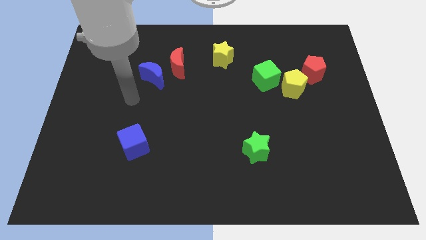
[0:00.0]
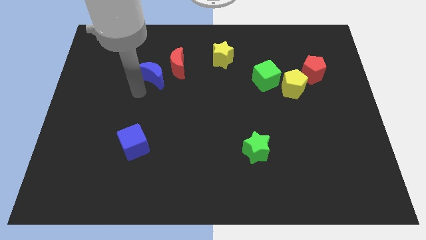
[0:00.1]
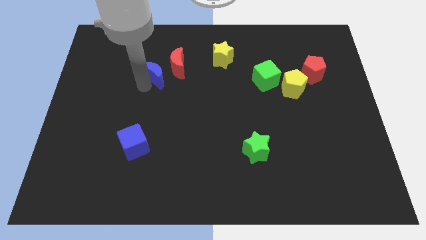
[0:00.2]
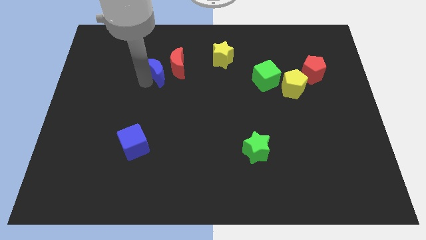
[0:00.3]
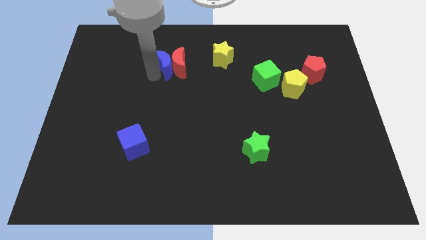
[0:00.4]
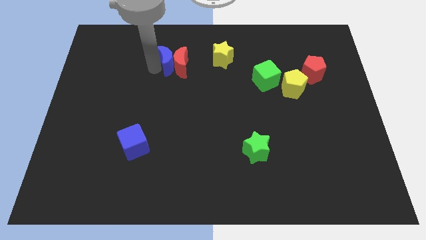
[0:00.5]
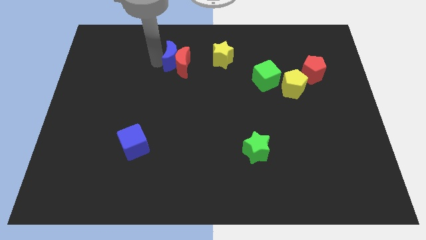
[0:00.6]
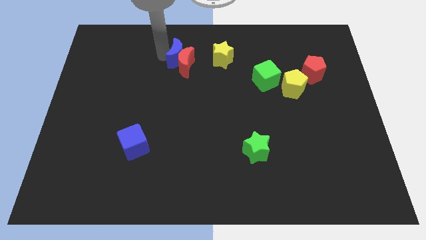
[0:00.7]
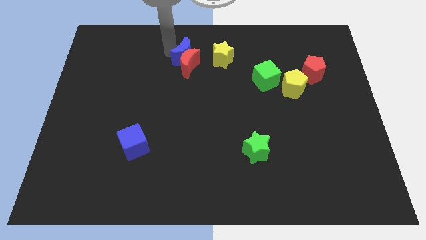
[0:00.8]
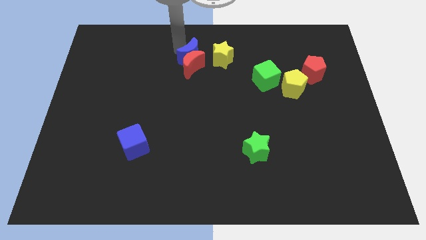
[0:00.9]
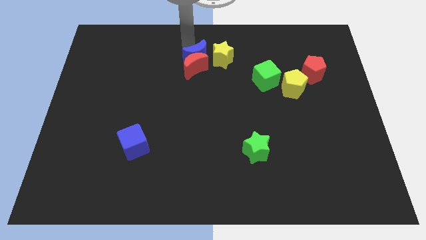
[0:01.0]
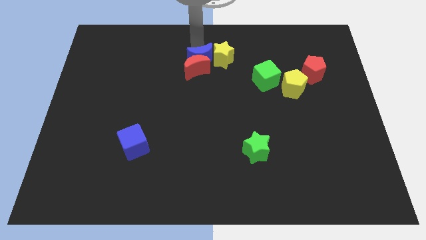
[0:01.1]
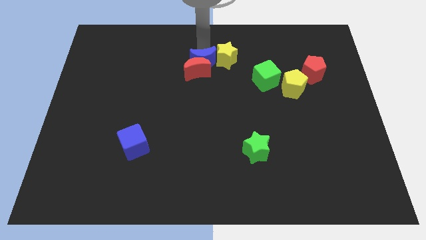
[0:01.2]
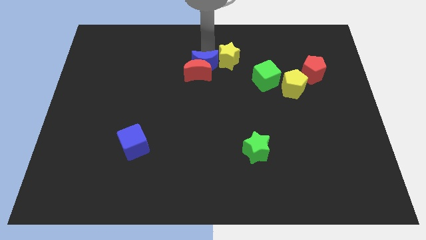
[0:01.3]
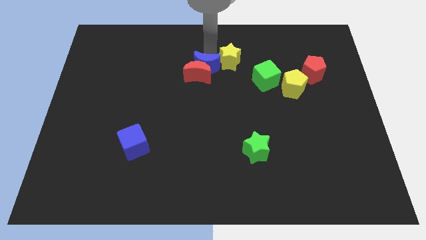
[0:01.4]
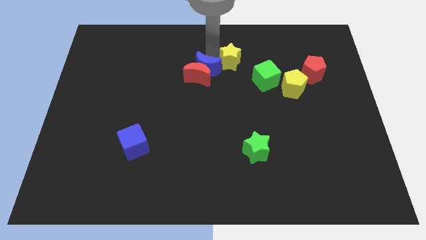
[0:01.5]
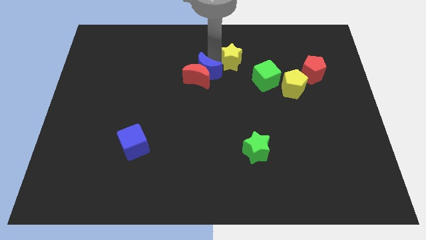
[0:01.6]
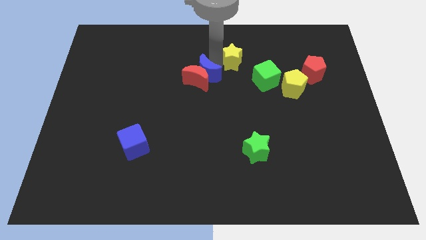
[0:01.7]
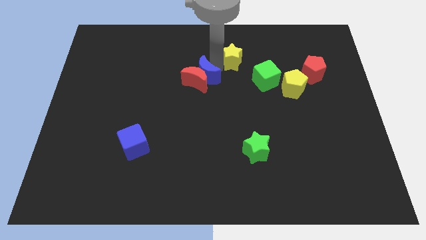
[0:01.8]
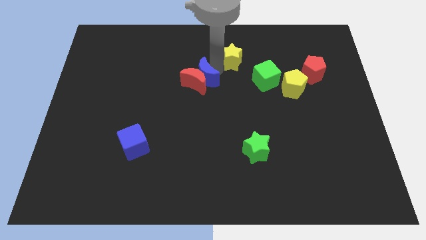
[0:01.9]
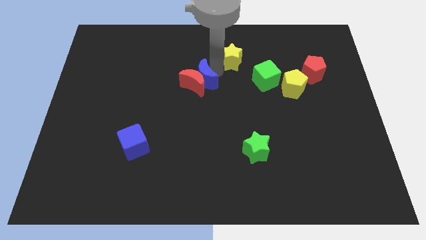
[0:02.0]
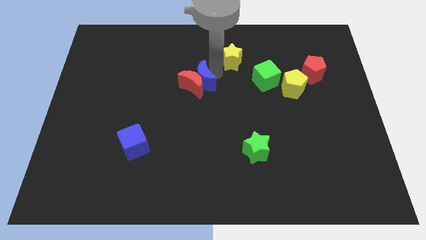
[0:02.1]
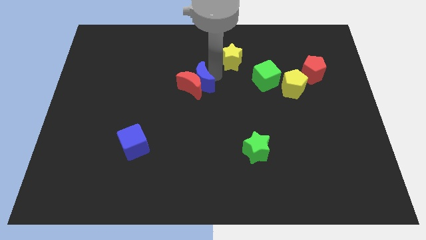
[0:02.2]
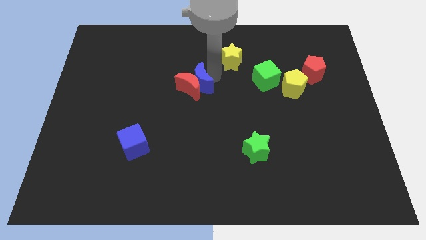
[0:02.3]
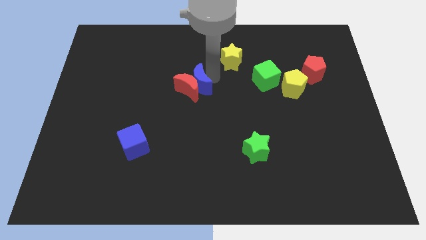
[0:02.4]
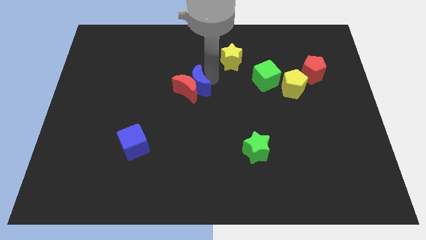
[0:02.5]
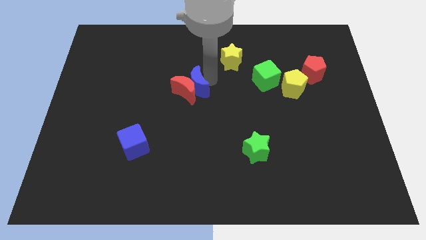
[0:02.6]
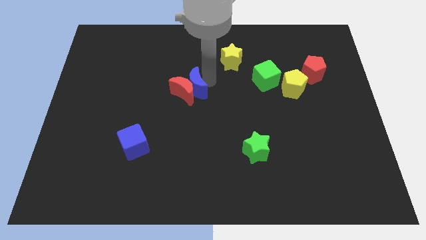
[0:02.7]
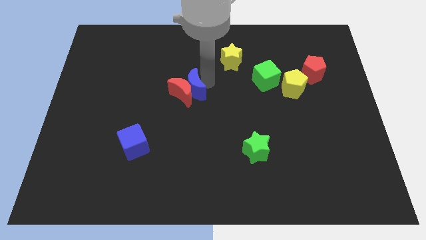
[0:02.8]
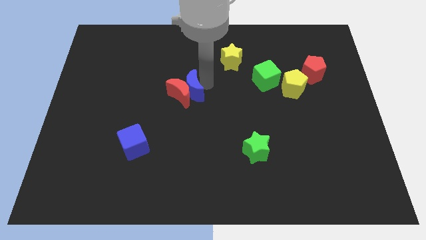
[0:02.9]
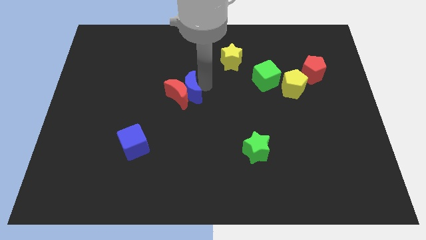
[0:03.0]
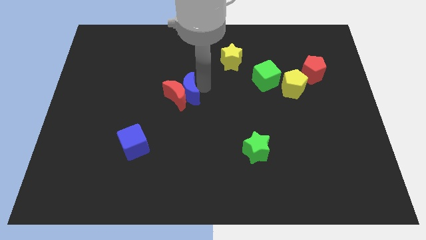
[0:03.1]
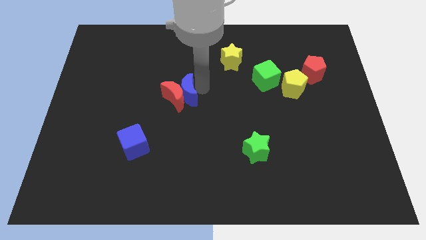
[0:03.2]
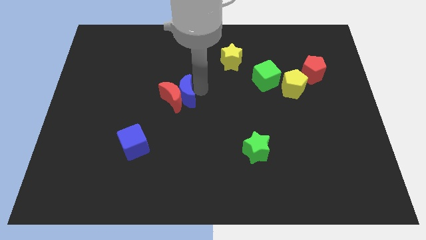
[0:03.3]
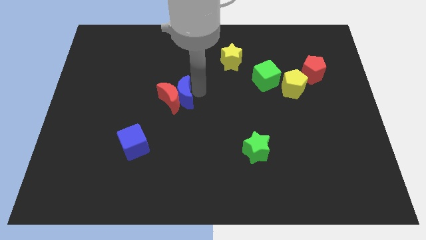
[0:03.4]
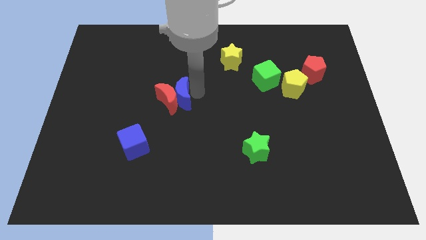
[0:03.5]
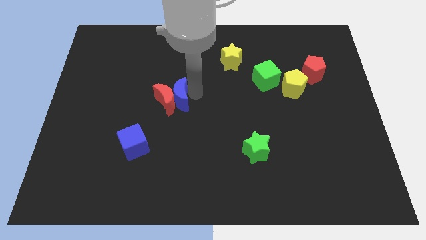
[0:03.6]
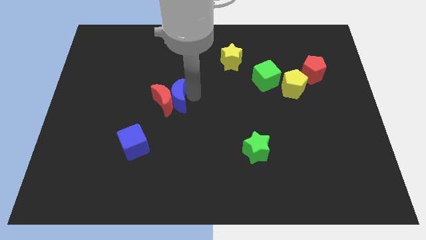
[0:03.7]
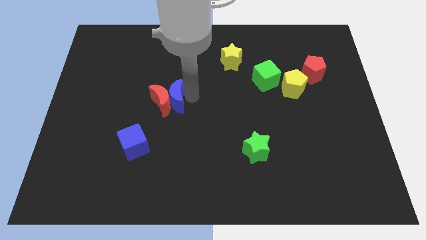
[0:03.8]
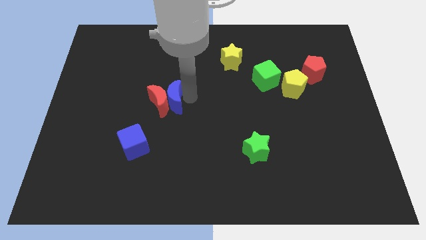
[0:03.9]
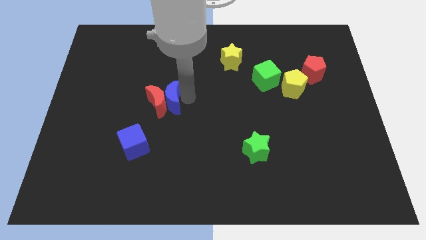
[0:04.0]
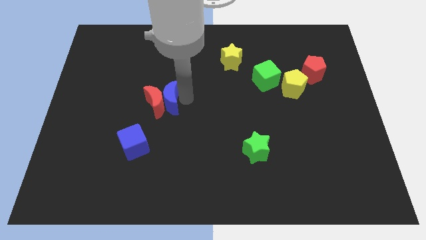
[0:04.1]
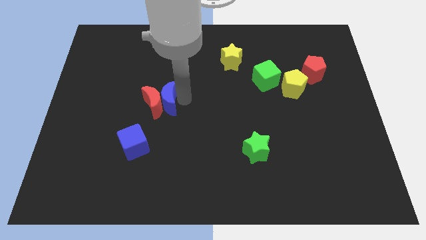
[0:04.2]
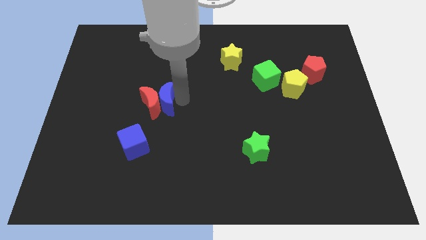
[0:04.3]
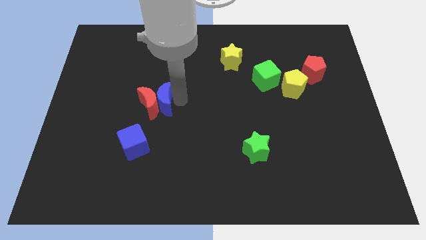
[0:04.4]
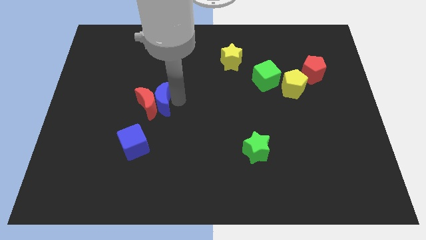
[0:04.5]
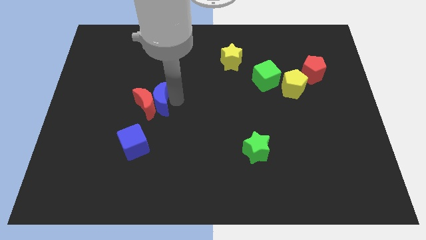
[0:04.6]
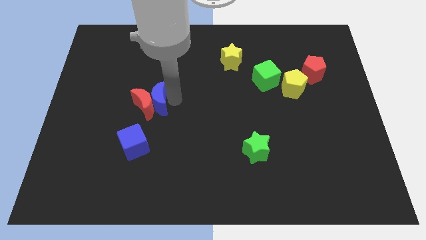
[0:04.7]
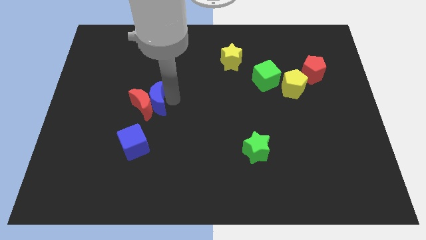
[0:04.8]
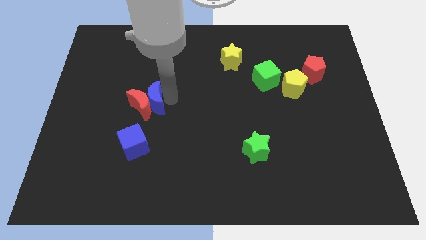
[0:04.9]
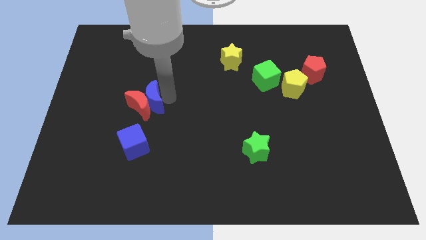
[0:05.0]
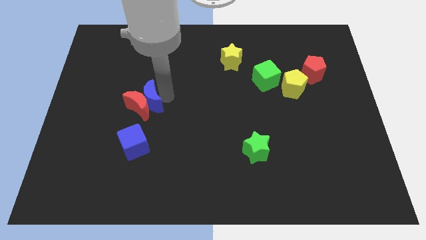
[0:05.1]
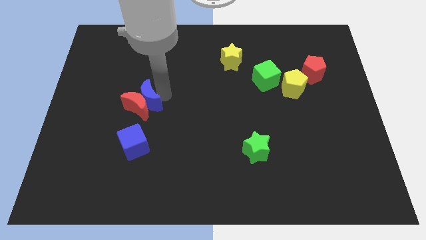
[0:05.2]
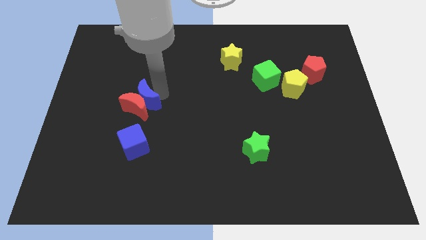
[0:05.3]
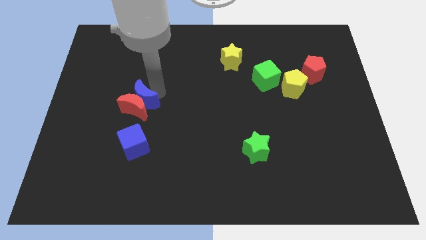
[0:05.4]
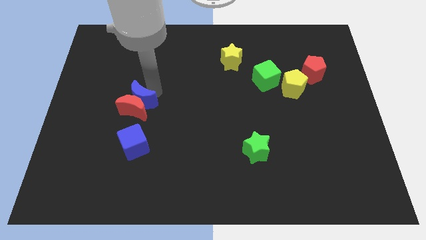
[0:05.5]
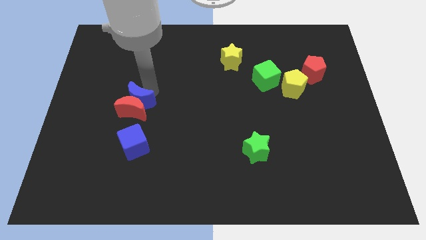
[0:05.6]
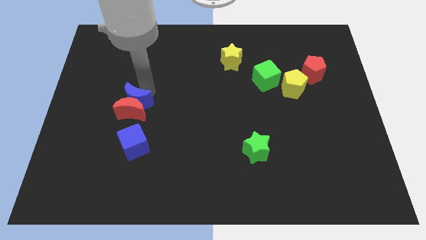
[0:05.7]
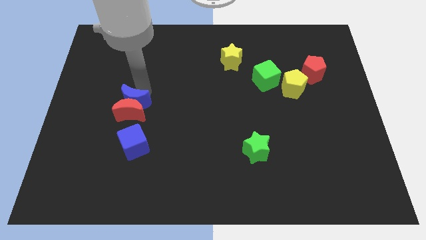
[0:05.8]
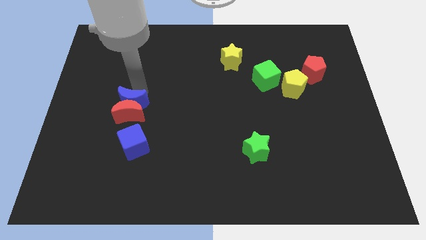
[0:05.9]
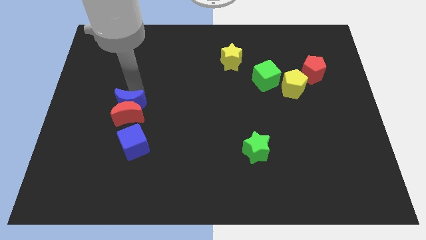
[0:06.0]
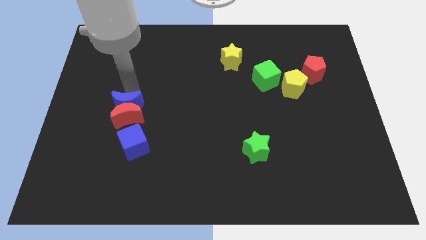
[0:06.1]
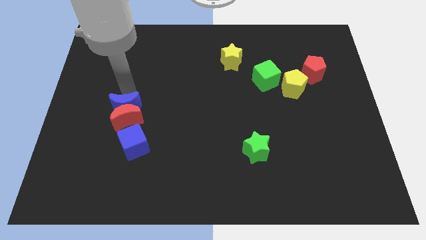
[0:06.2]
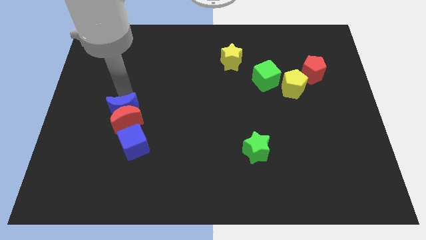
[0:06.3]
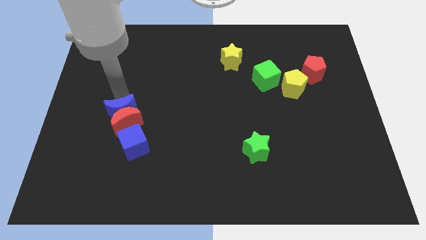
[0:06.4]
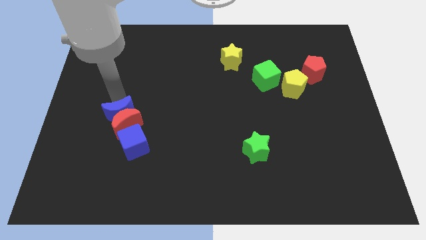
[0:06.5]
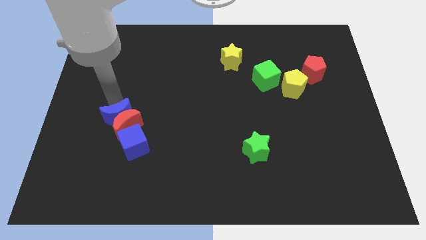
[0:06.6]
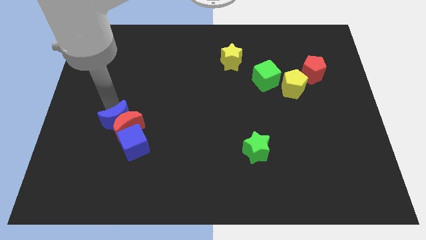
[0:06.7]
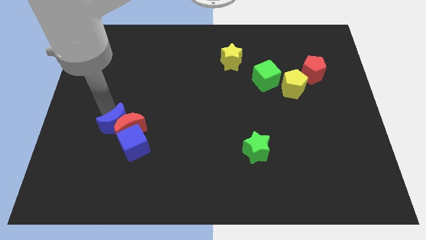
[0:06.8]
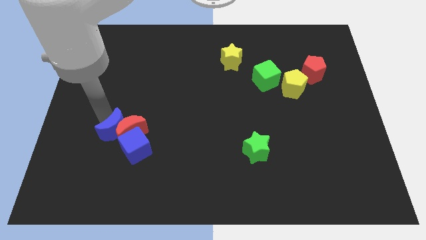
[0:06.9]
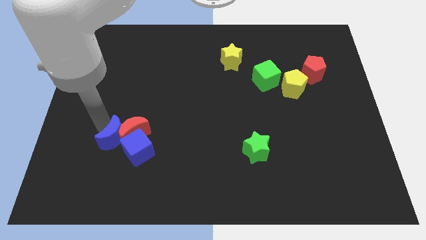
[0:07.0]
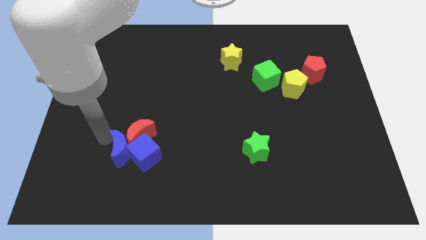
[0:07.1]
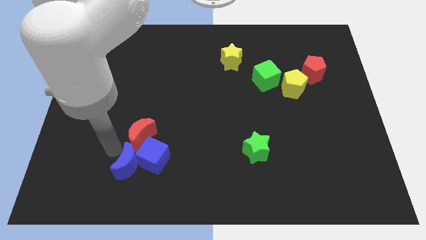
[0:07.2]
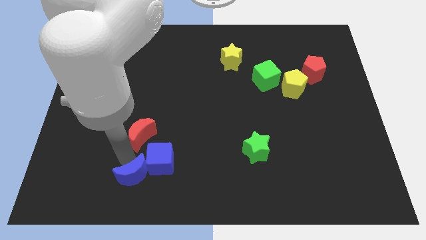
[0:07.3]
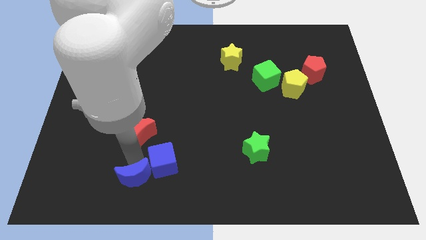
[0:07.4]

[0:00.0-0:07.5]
move the red moon away from the blue moon

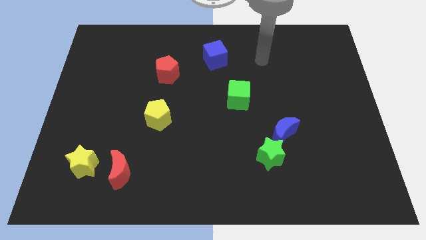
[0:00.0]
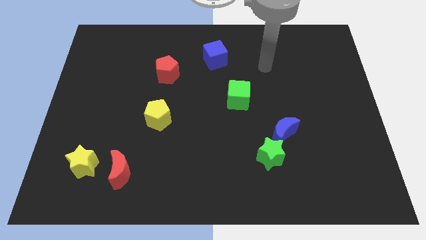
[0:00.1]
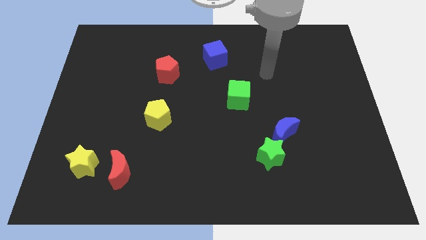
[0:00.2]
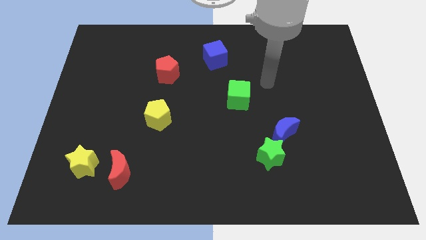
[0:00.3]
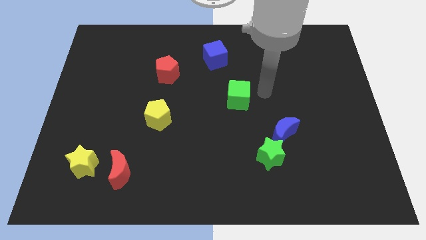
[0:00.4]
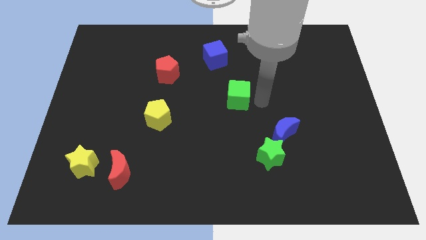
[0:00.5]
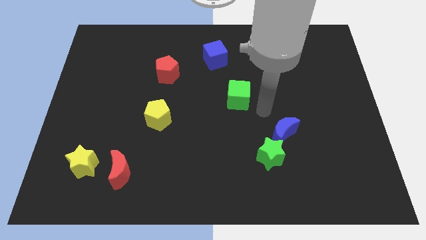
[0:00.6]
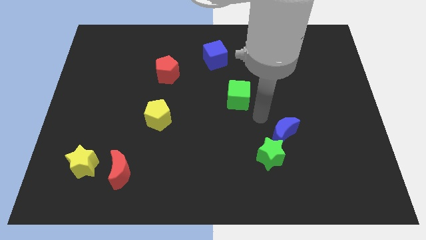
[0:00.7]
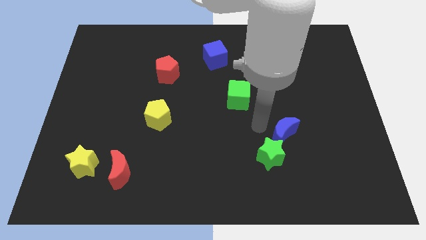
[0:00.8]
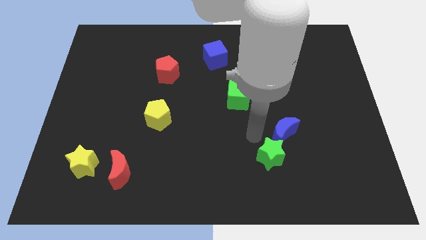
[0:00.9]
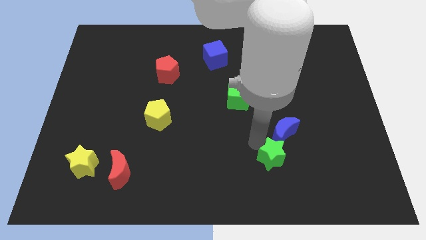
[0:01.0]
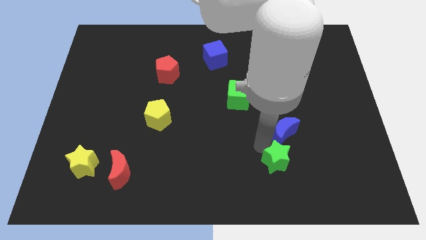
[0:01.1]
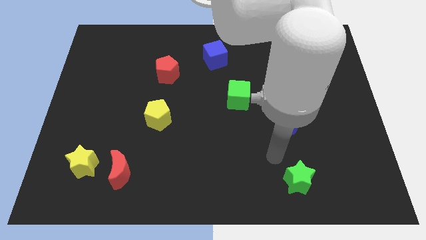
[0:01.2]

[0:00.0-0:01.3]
pull the blue moon apart from the green star

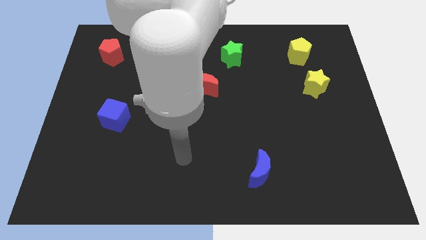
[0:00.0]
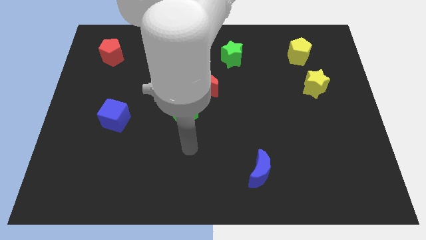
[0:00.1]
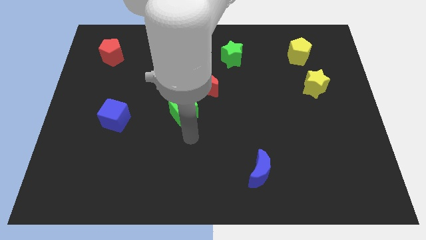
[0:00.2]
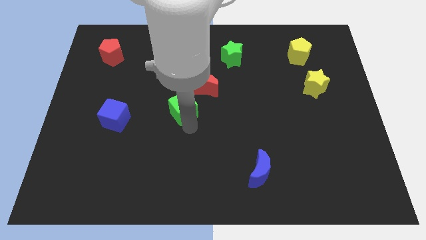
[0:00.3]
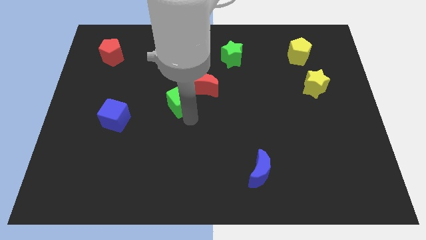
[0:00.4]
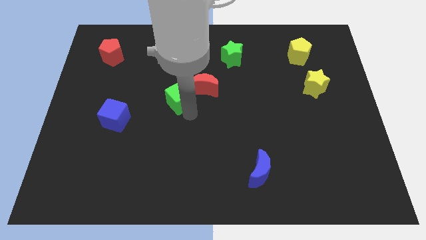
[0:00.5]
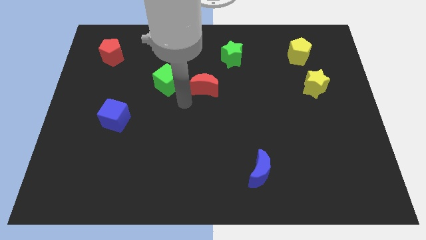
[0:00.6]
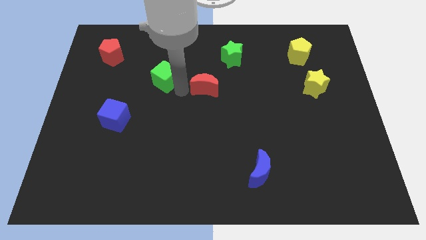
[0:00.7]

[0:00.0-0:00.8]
pull the red moon apart from the green cube
